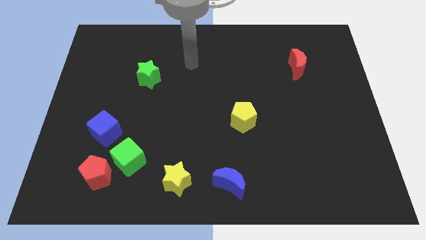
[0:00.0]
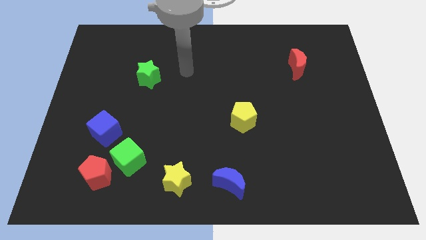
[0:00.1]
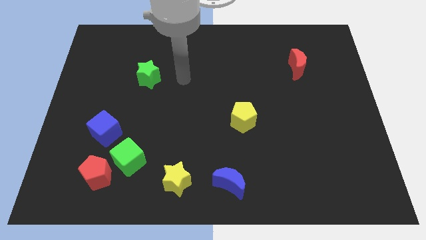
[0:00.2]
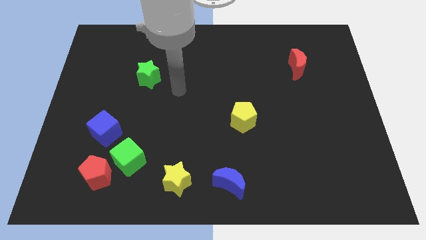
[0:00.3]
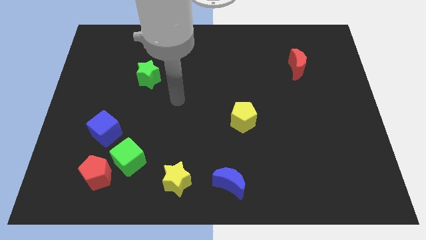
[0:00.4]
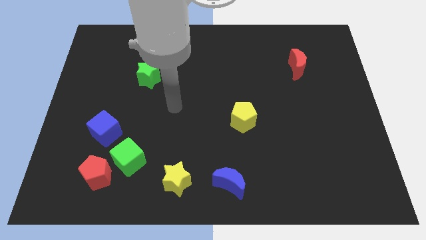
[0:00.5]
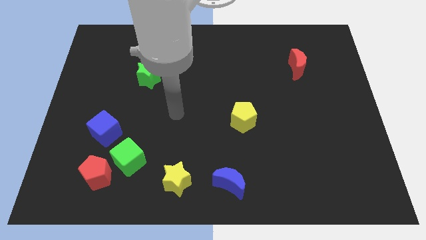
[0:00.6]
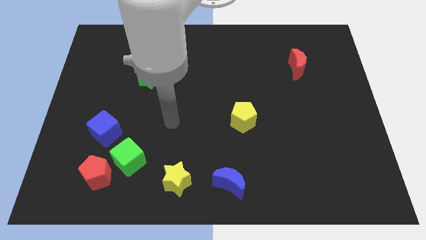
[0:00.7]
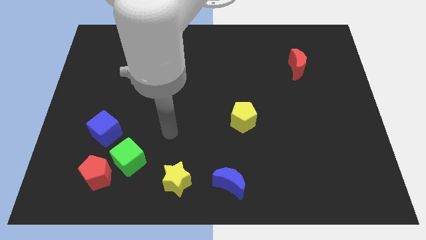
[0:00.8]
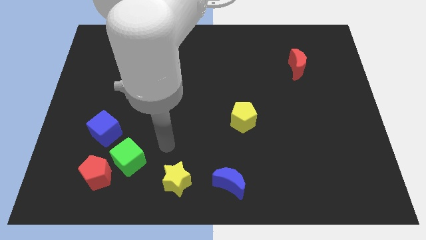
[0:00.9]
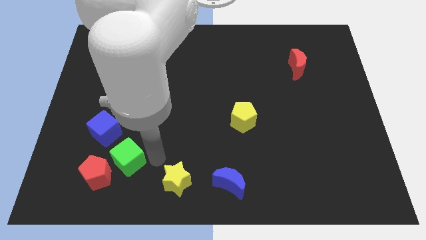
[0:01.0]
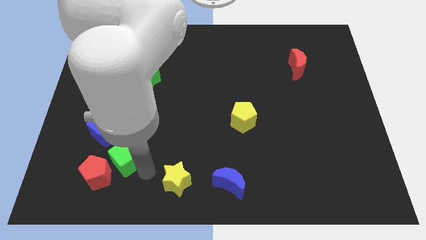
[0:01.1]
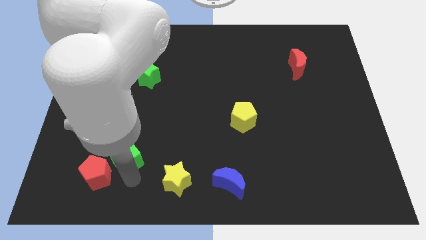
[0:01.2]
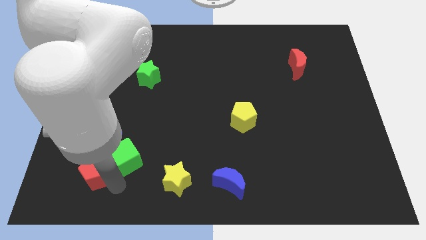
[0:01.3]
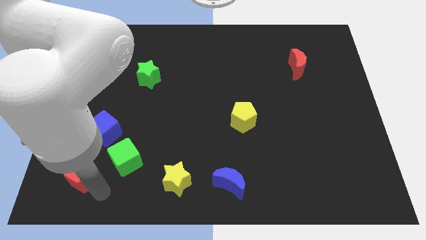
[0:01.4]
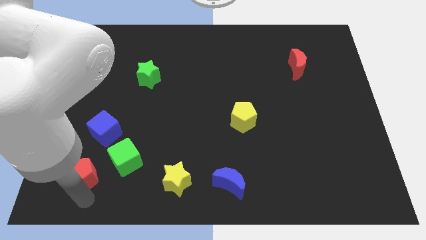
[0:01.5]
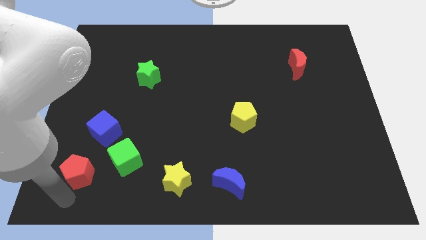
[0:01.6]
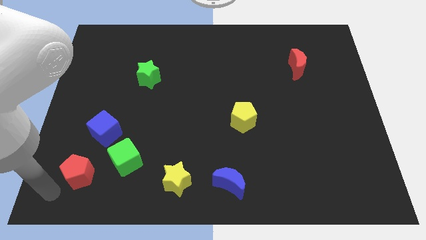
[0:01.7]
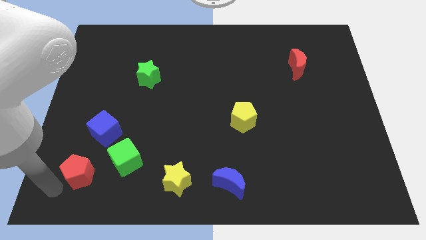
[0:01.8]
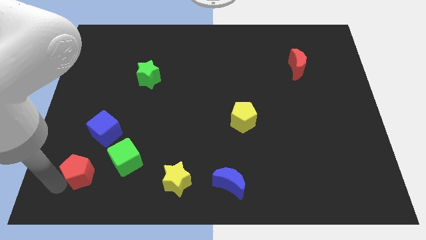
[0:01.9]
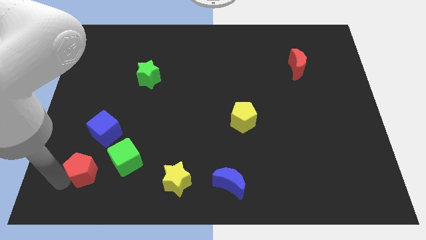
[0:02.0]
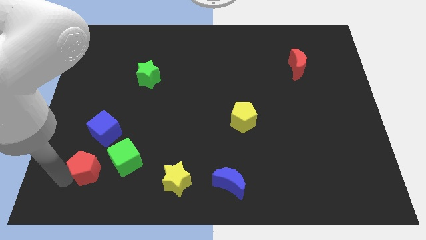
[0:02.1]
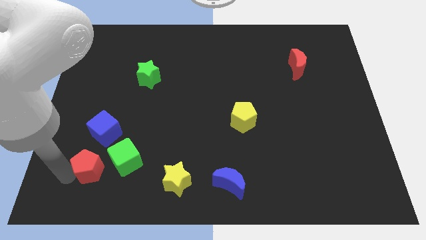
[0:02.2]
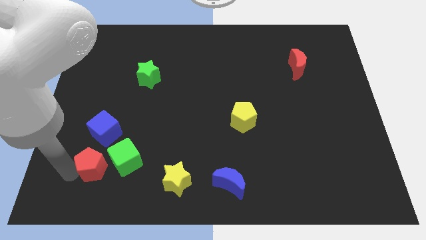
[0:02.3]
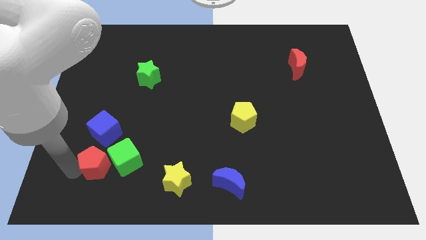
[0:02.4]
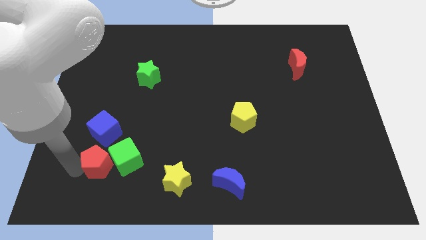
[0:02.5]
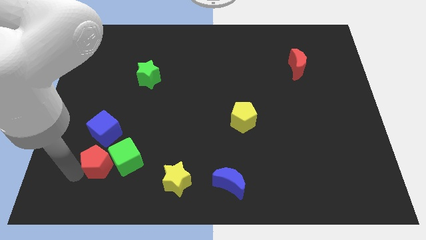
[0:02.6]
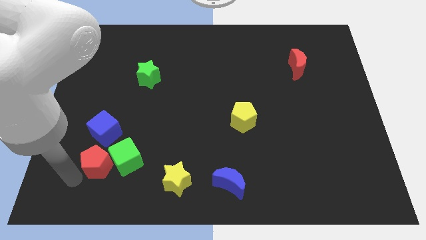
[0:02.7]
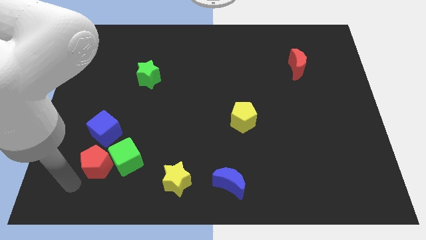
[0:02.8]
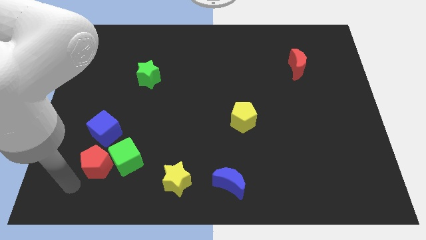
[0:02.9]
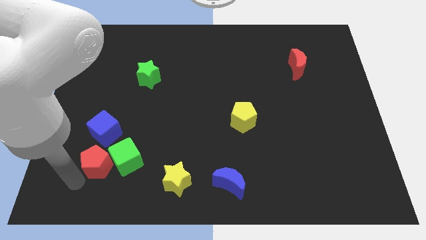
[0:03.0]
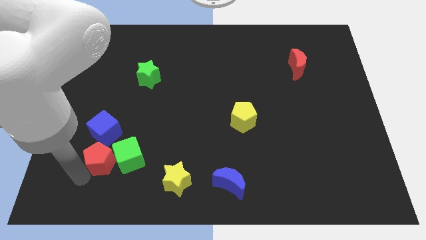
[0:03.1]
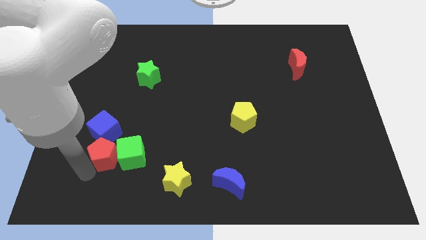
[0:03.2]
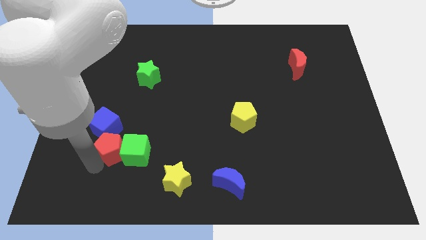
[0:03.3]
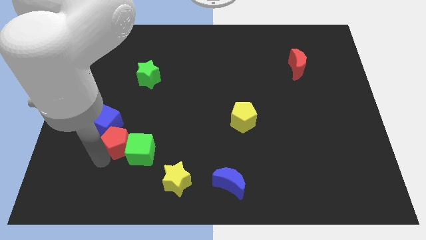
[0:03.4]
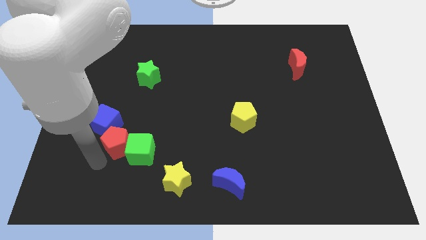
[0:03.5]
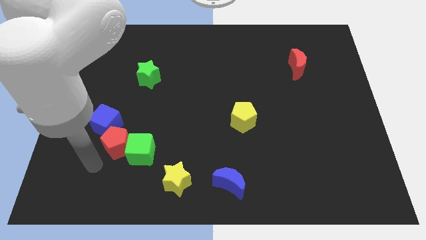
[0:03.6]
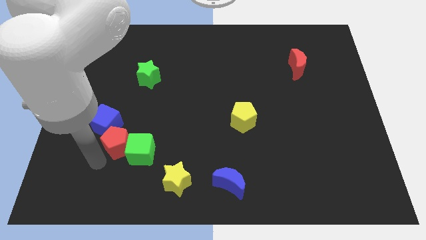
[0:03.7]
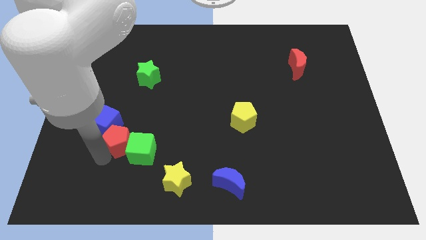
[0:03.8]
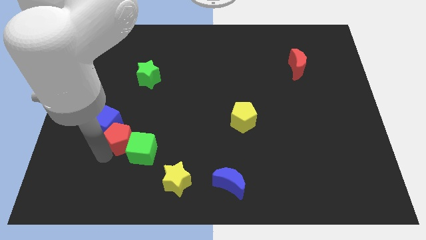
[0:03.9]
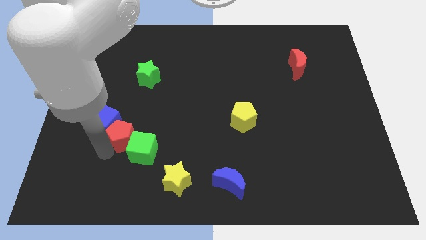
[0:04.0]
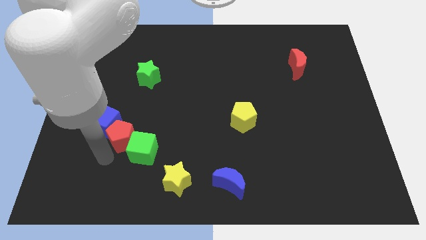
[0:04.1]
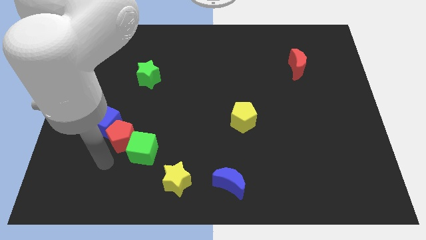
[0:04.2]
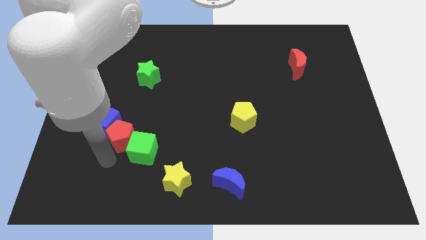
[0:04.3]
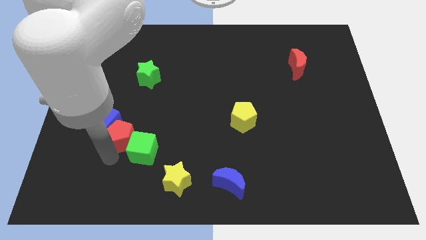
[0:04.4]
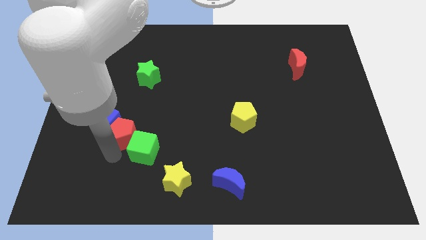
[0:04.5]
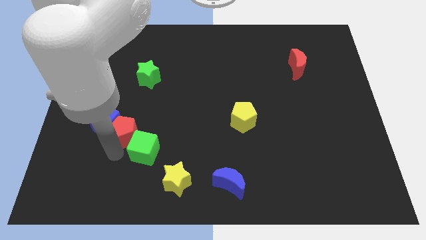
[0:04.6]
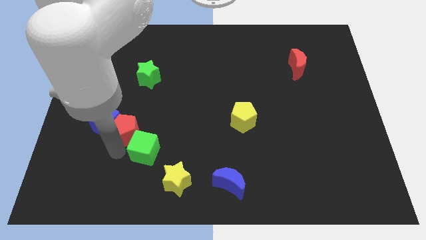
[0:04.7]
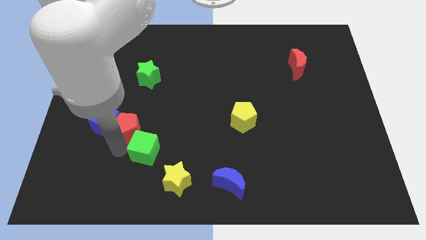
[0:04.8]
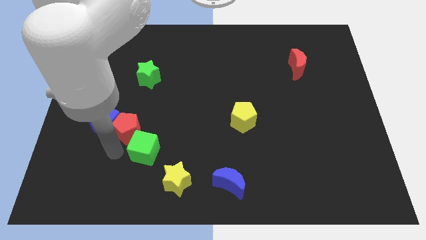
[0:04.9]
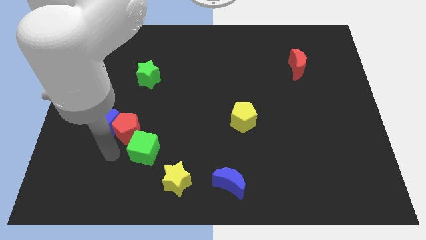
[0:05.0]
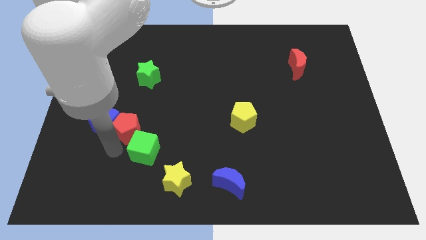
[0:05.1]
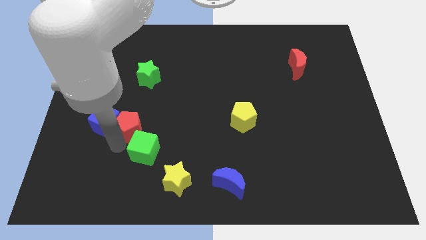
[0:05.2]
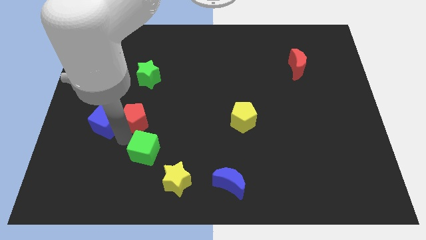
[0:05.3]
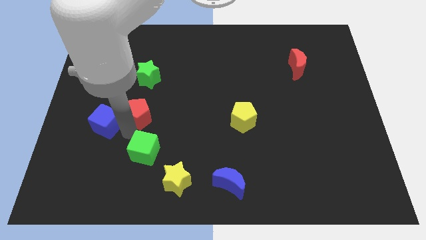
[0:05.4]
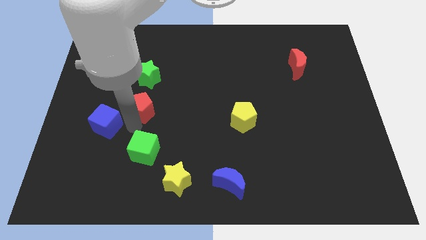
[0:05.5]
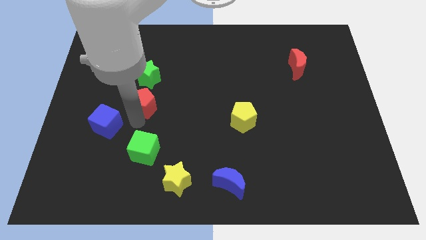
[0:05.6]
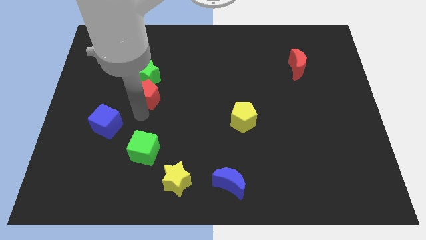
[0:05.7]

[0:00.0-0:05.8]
put the red pentagon close to the green star

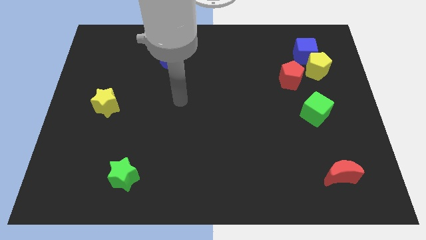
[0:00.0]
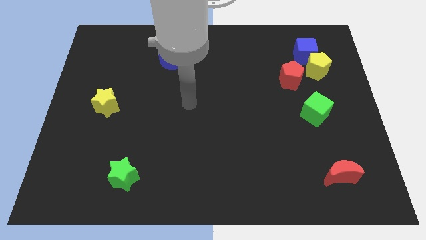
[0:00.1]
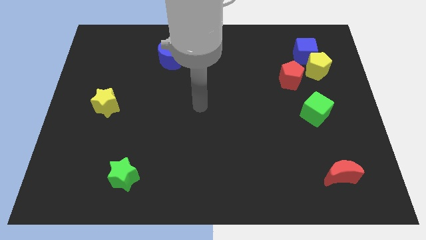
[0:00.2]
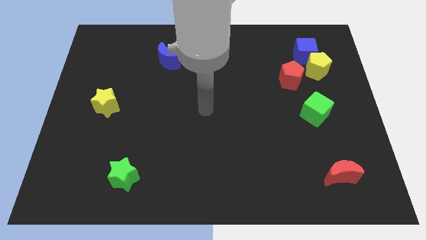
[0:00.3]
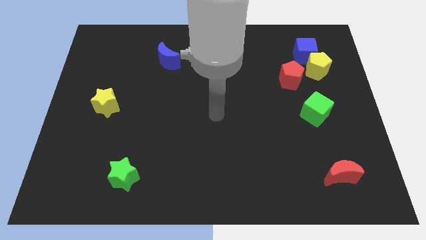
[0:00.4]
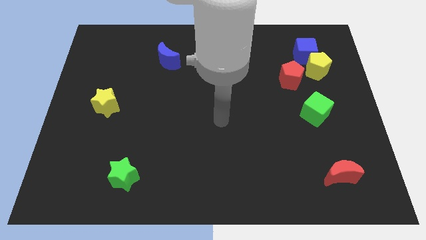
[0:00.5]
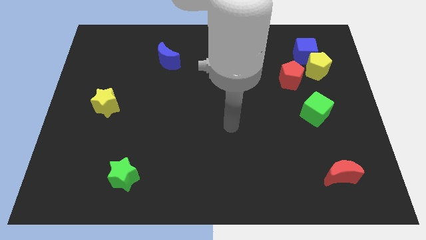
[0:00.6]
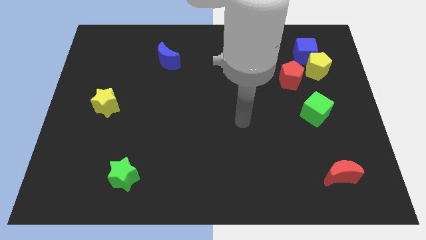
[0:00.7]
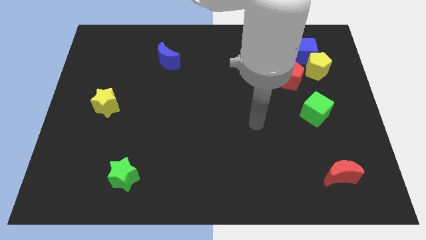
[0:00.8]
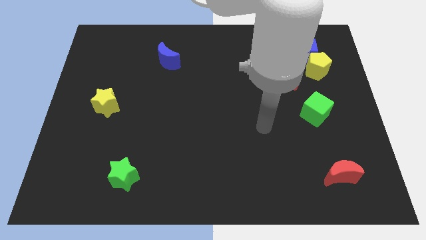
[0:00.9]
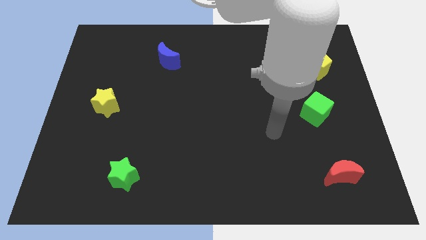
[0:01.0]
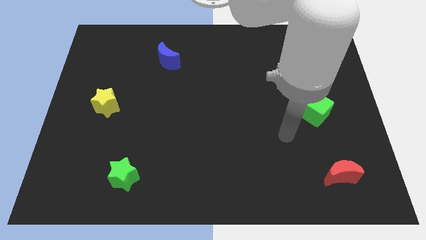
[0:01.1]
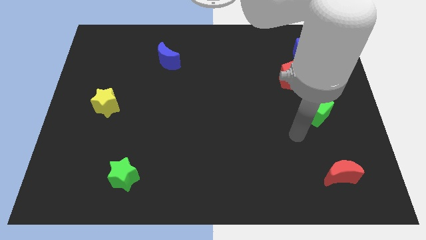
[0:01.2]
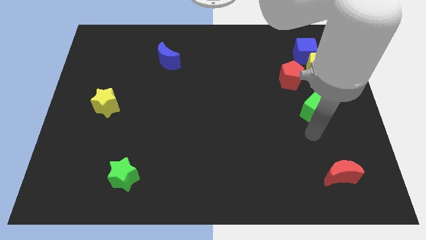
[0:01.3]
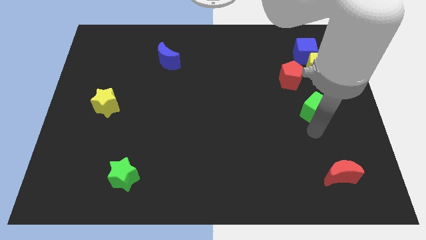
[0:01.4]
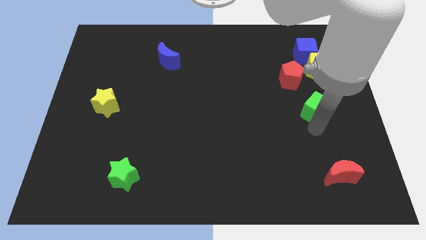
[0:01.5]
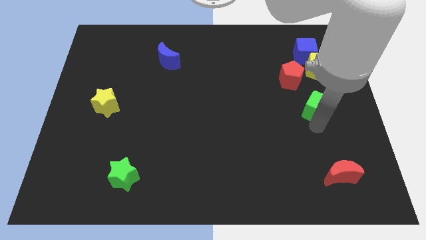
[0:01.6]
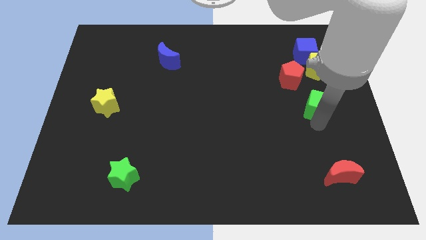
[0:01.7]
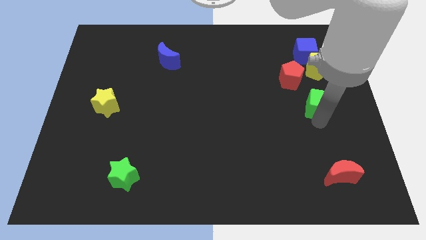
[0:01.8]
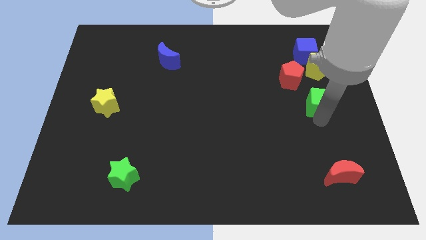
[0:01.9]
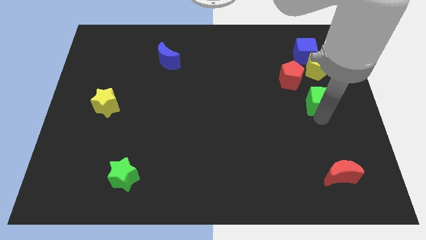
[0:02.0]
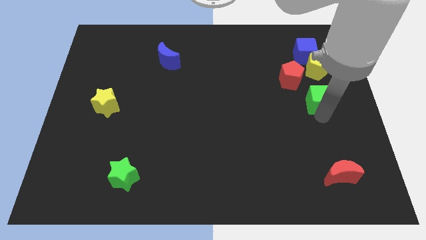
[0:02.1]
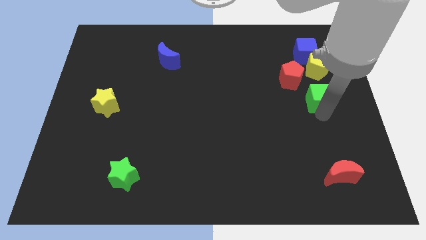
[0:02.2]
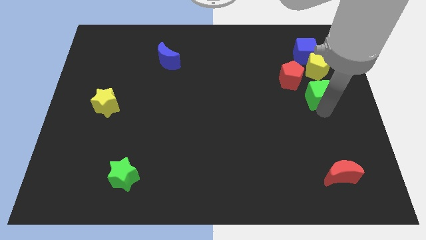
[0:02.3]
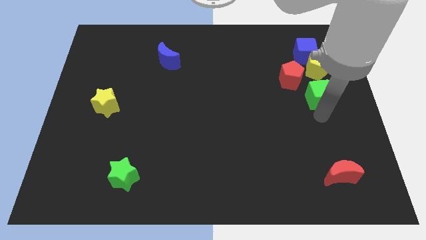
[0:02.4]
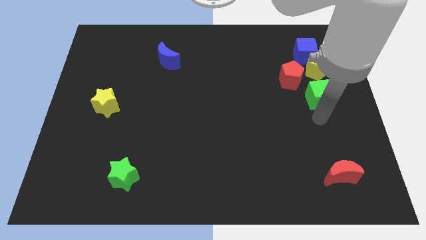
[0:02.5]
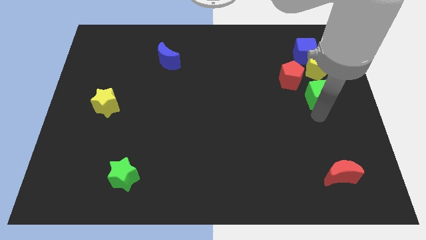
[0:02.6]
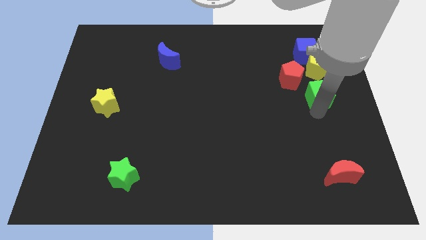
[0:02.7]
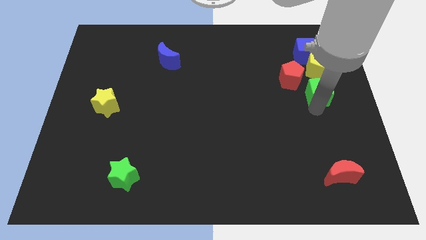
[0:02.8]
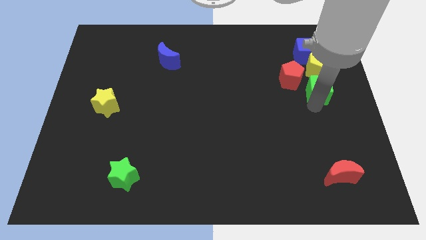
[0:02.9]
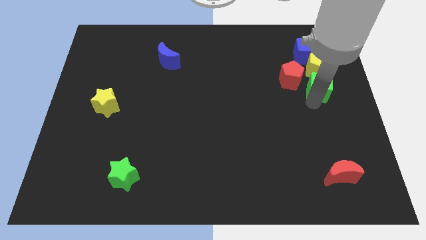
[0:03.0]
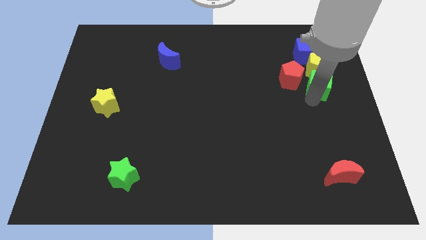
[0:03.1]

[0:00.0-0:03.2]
slide the green cube to the yellow pentagon
